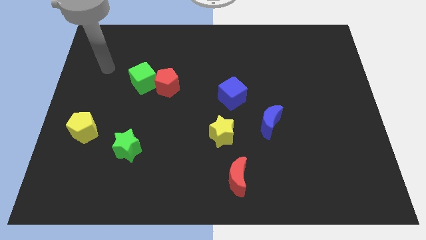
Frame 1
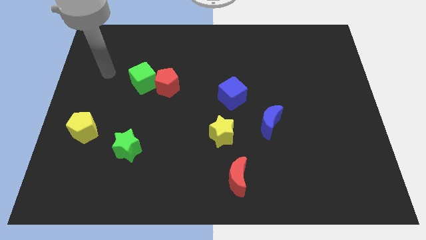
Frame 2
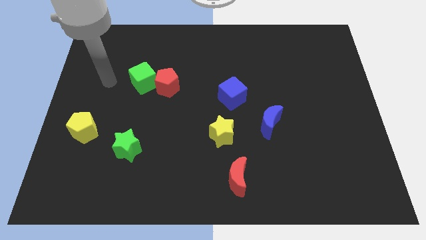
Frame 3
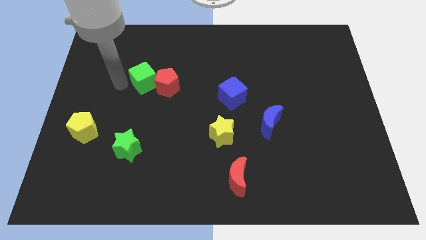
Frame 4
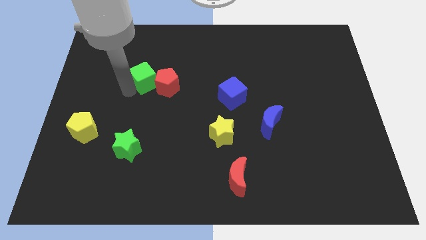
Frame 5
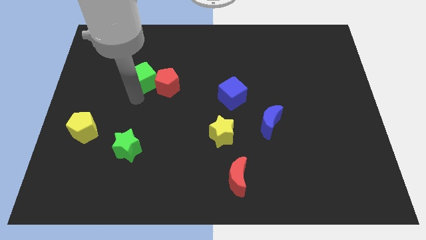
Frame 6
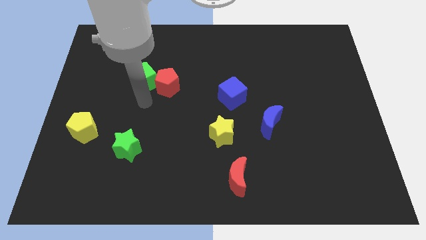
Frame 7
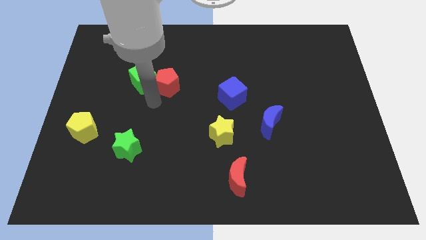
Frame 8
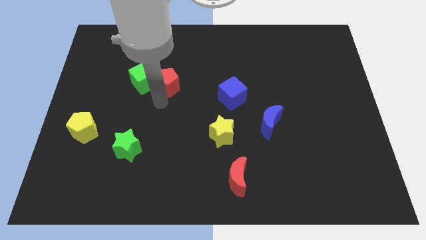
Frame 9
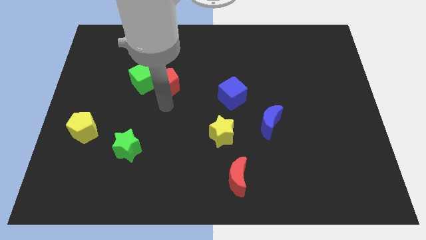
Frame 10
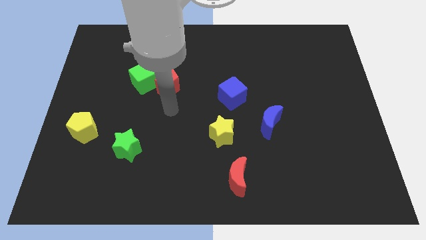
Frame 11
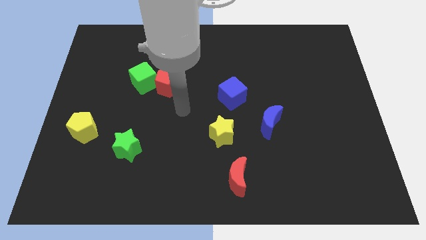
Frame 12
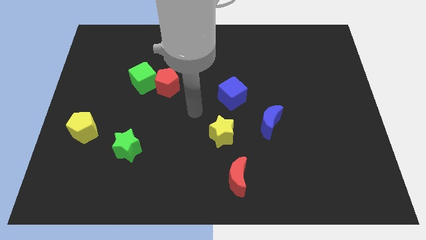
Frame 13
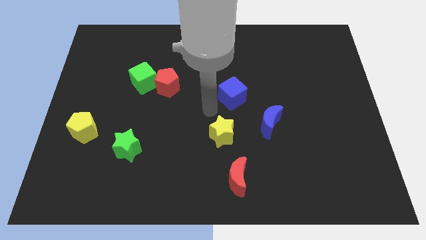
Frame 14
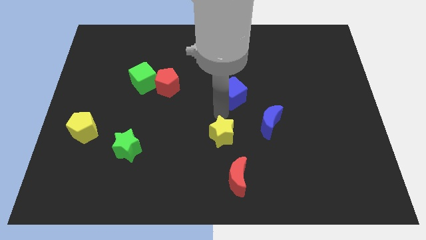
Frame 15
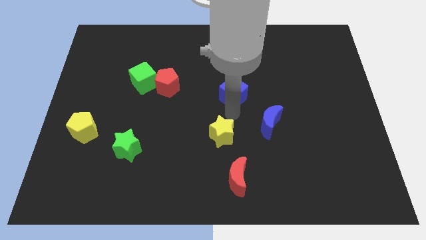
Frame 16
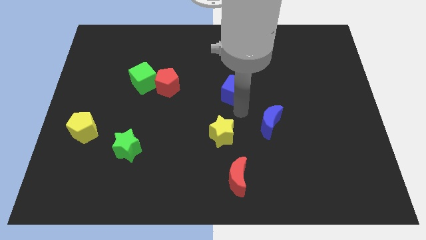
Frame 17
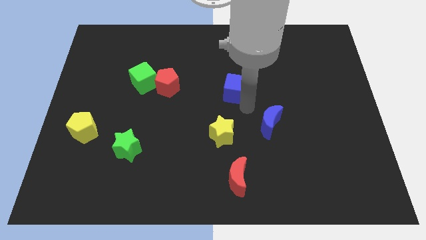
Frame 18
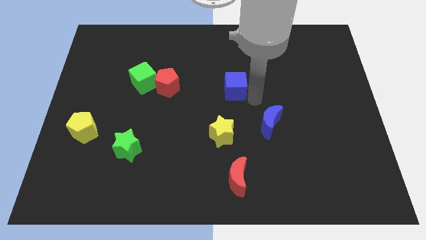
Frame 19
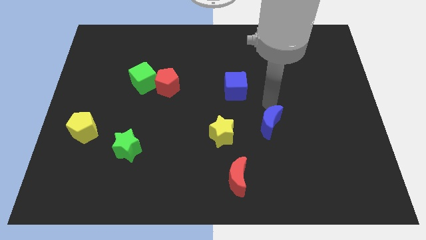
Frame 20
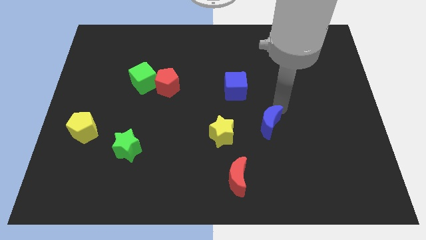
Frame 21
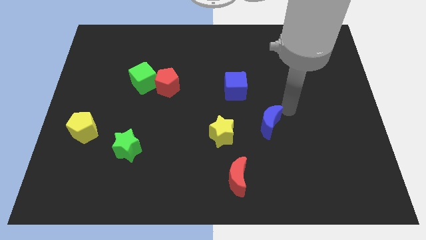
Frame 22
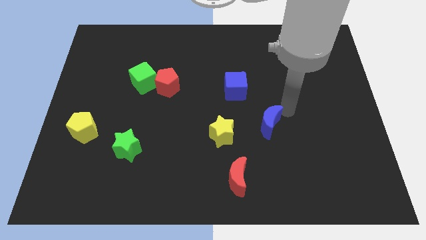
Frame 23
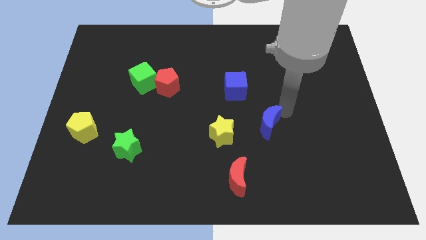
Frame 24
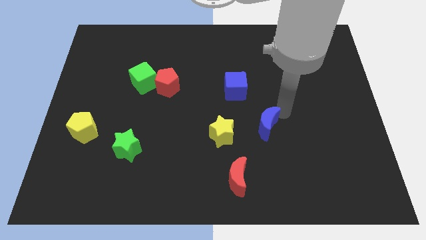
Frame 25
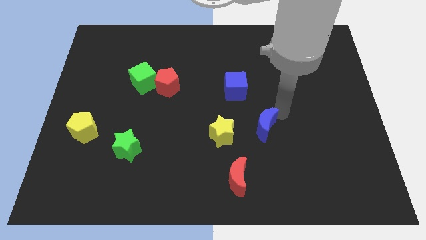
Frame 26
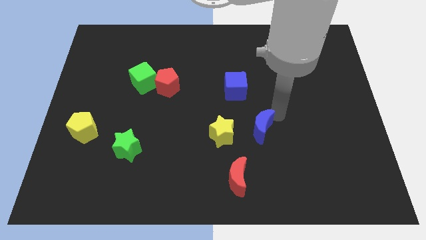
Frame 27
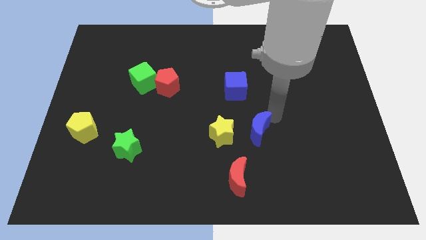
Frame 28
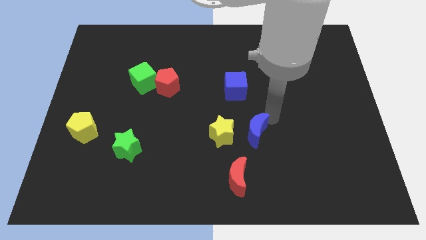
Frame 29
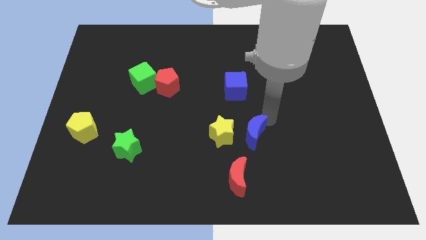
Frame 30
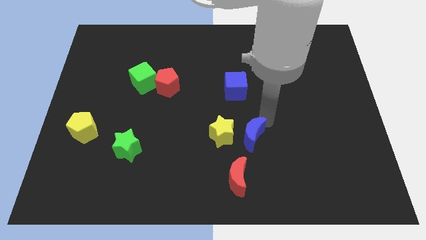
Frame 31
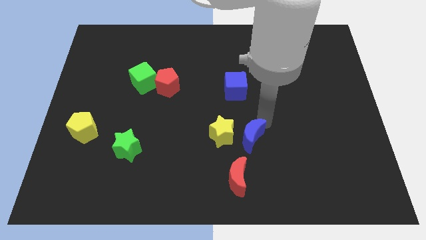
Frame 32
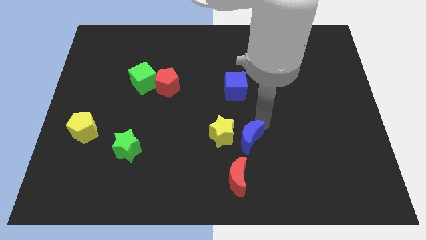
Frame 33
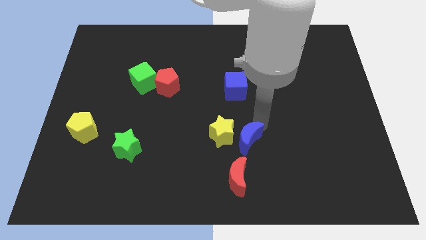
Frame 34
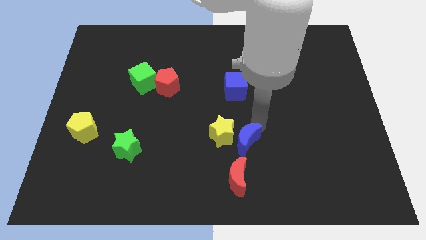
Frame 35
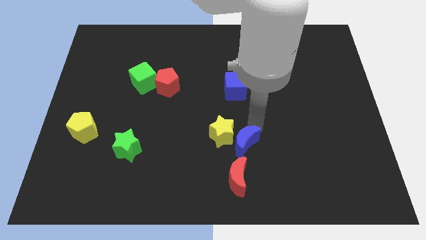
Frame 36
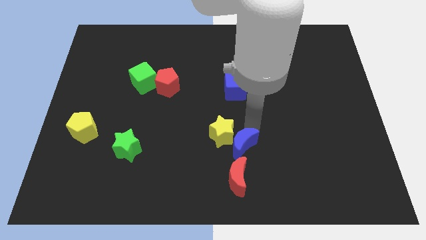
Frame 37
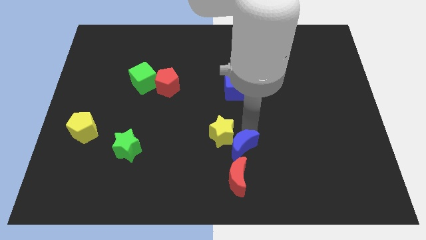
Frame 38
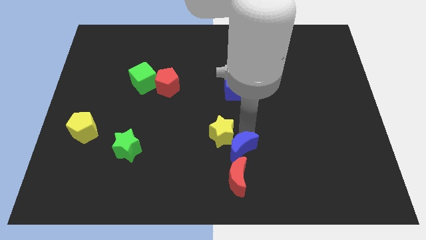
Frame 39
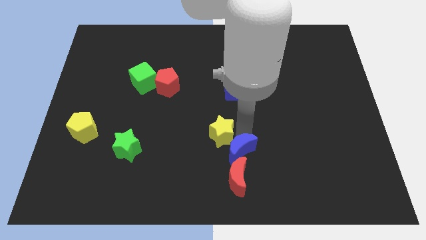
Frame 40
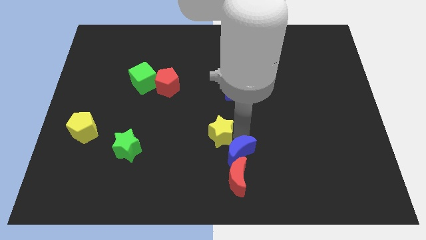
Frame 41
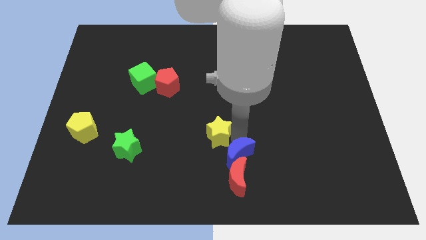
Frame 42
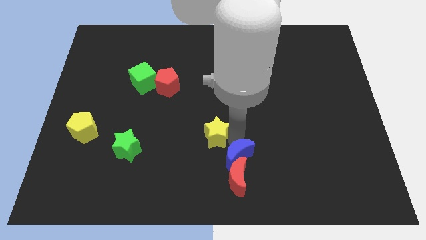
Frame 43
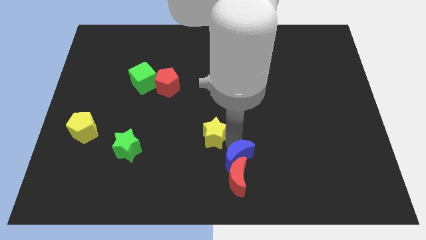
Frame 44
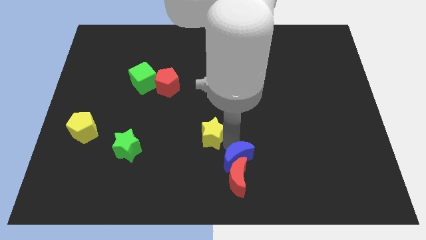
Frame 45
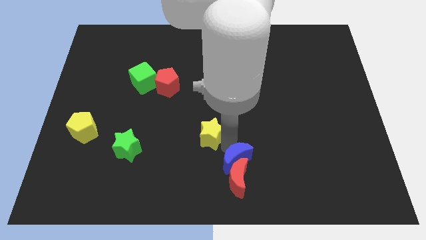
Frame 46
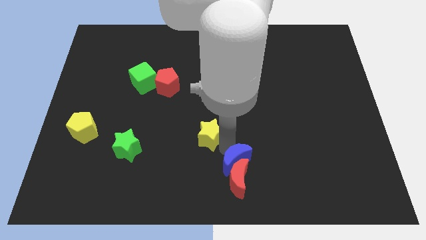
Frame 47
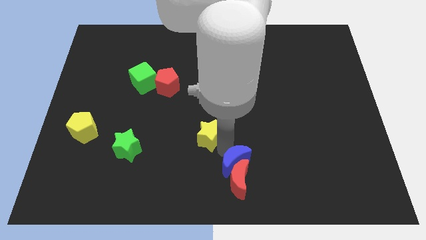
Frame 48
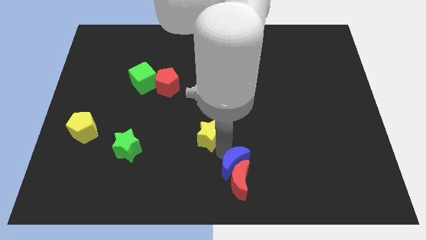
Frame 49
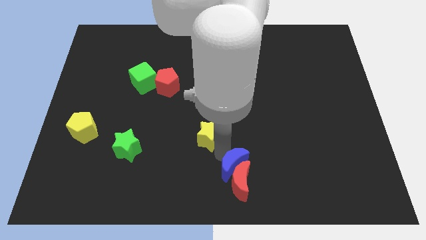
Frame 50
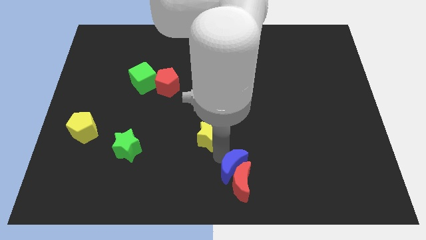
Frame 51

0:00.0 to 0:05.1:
move the blue moon to the left side of the red moon

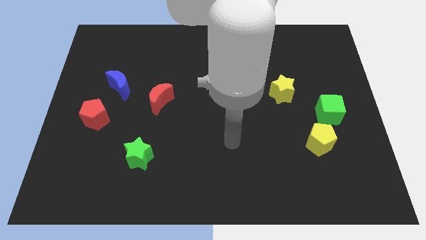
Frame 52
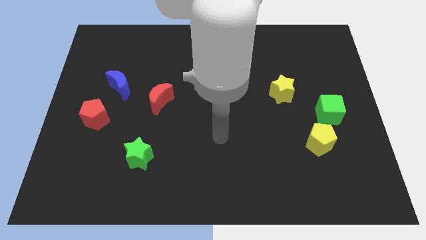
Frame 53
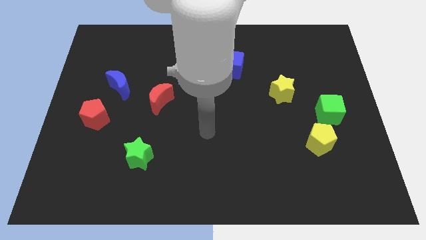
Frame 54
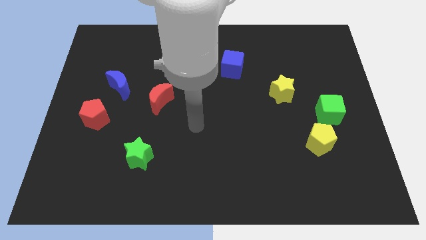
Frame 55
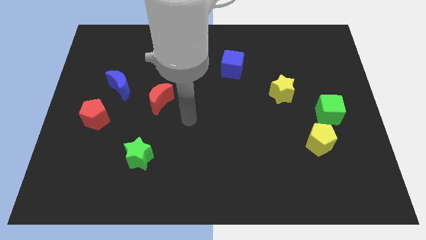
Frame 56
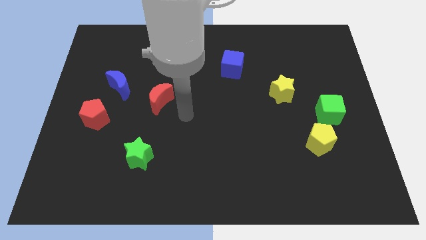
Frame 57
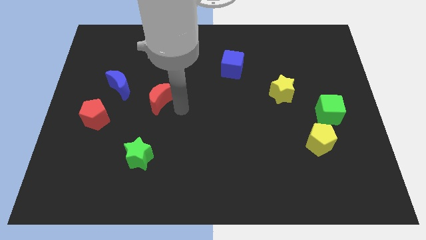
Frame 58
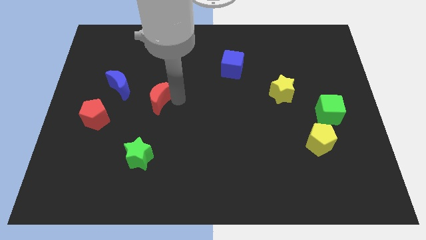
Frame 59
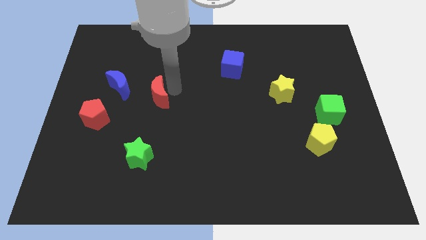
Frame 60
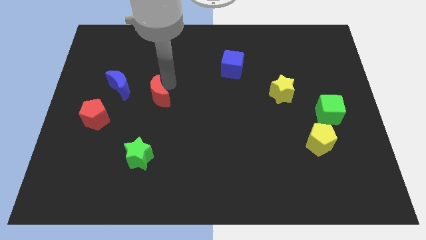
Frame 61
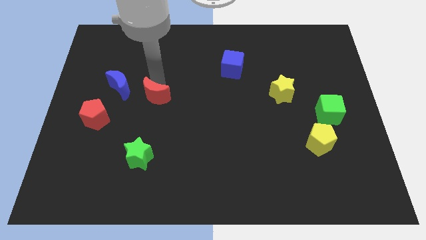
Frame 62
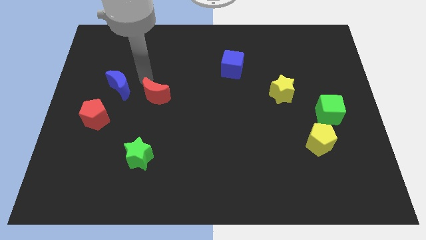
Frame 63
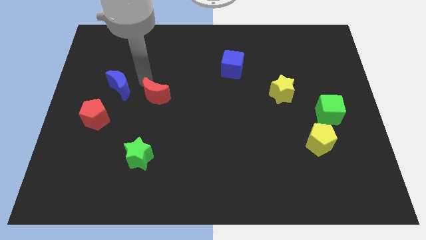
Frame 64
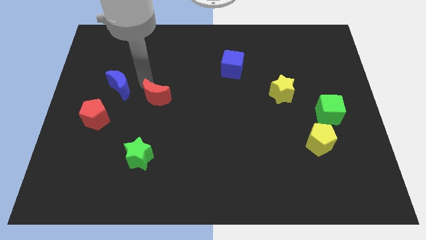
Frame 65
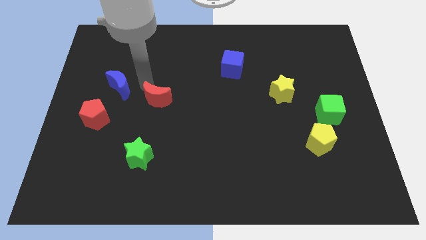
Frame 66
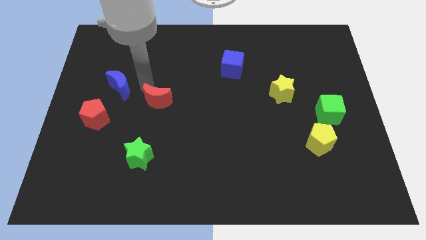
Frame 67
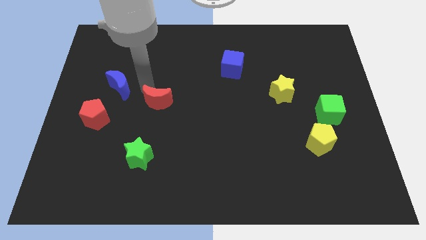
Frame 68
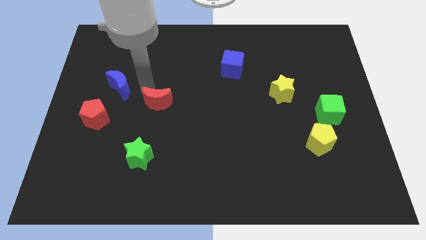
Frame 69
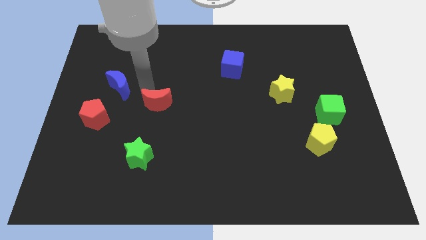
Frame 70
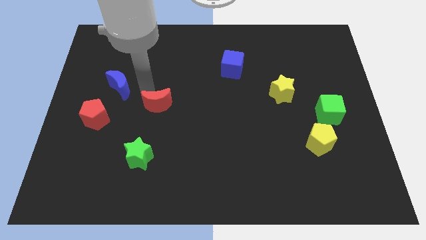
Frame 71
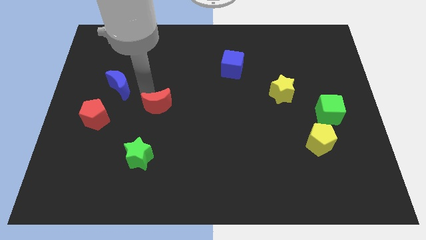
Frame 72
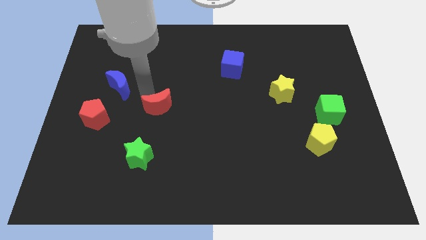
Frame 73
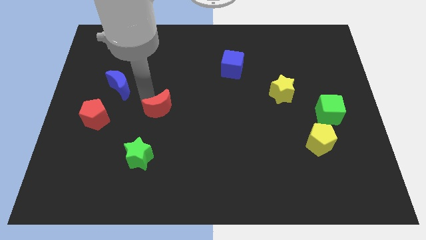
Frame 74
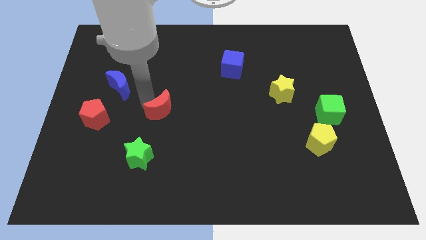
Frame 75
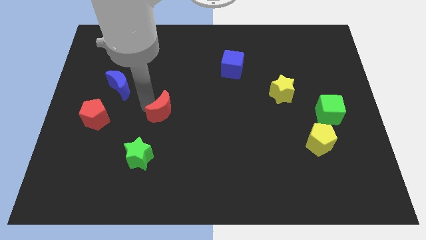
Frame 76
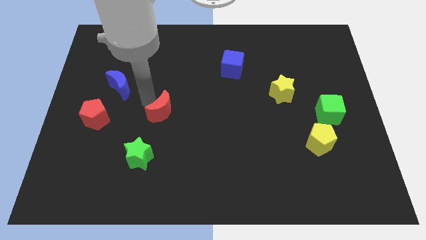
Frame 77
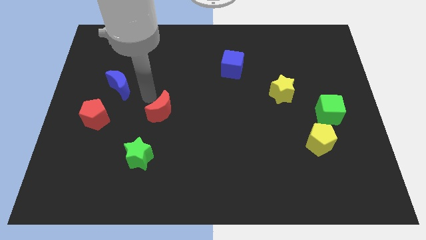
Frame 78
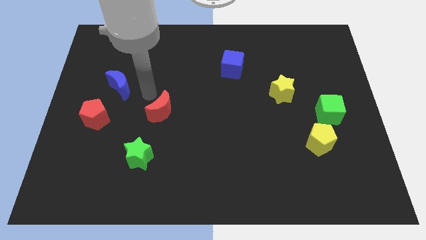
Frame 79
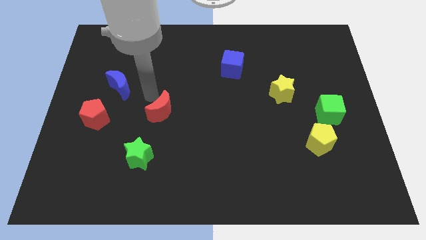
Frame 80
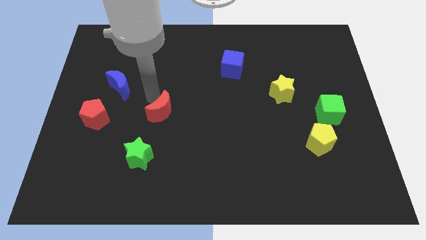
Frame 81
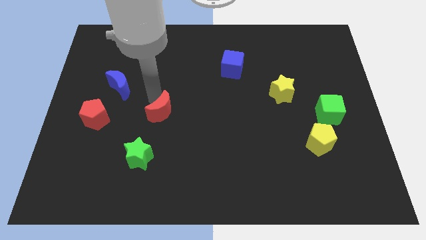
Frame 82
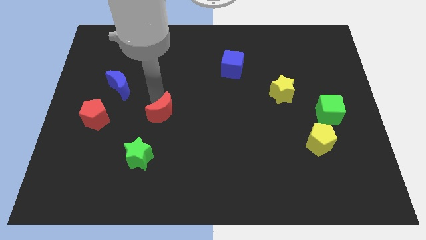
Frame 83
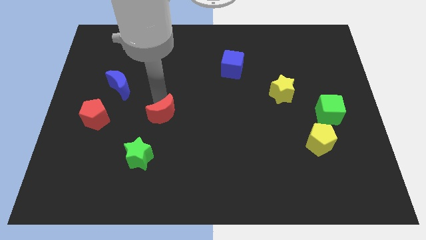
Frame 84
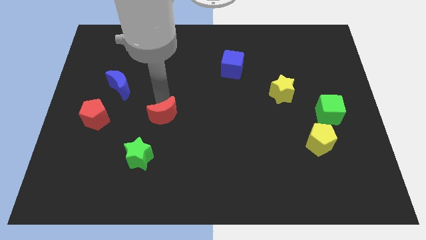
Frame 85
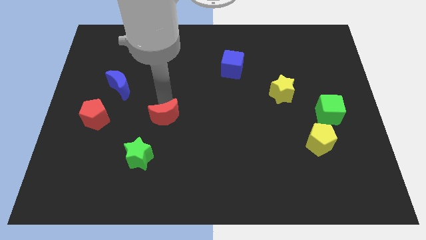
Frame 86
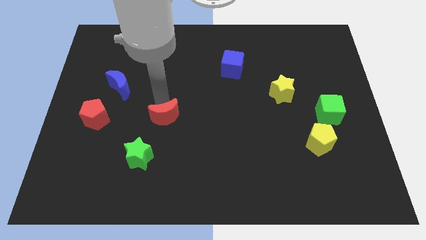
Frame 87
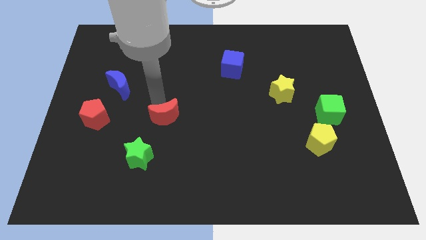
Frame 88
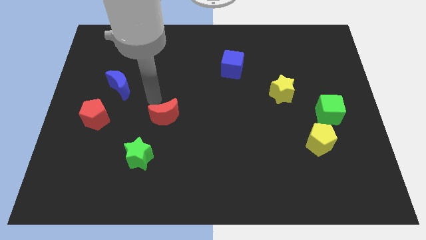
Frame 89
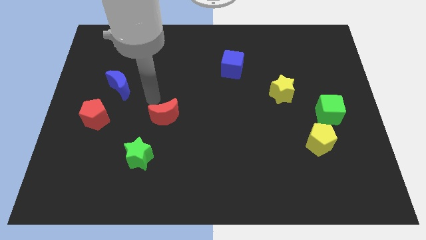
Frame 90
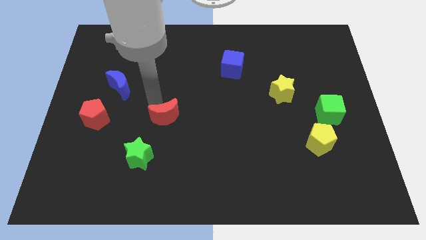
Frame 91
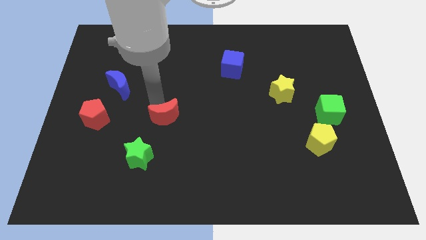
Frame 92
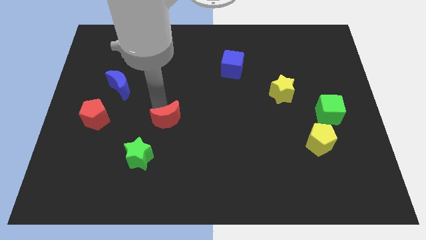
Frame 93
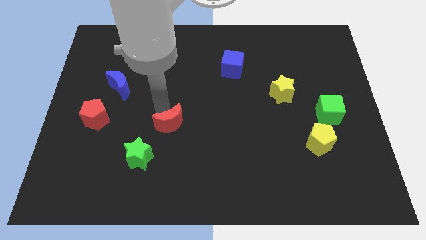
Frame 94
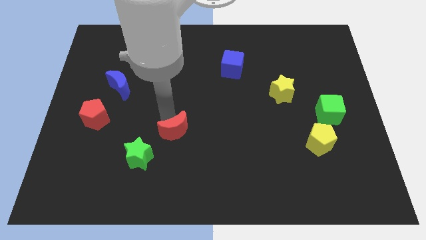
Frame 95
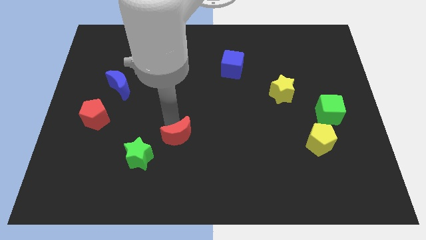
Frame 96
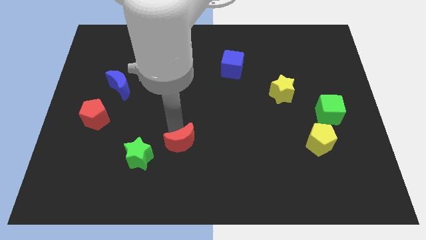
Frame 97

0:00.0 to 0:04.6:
slide the red moon to the right of the green star
